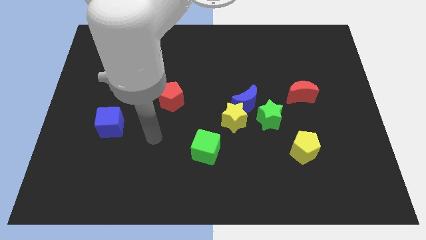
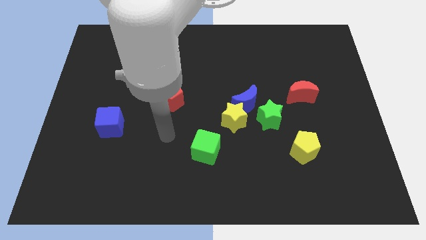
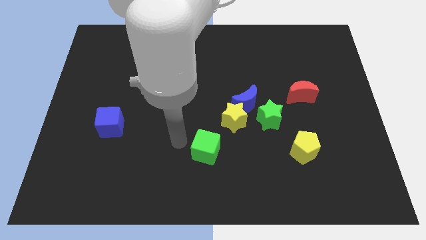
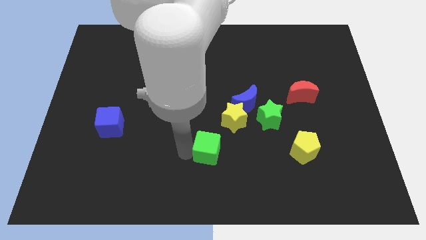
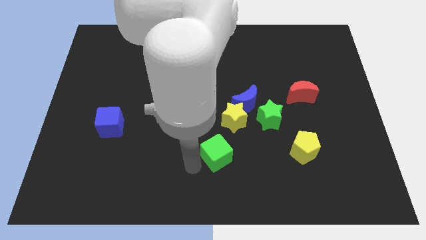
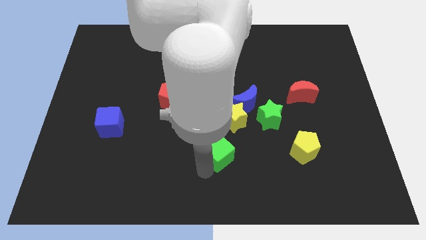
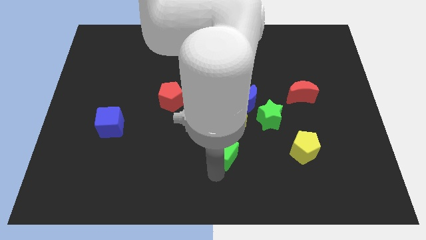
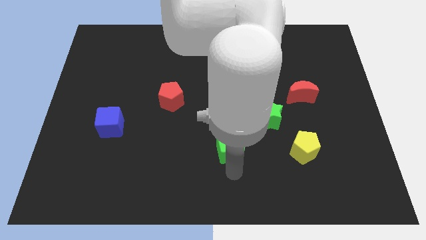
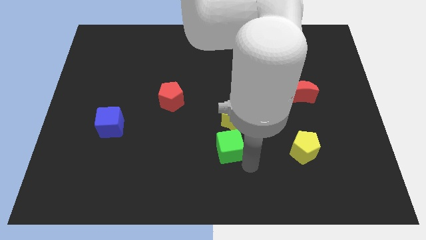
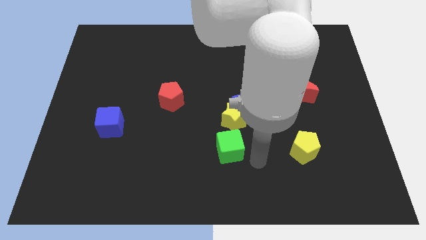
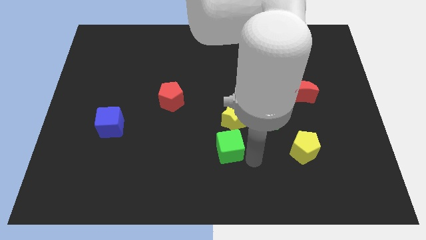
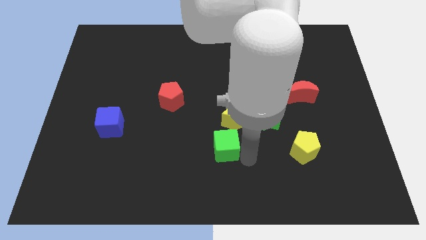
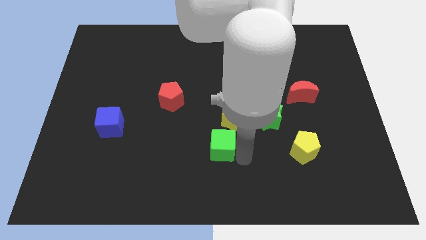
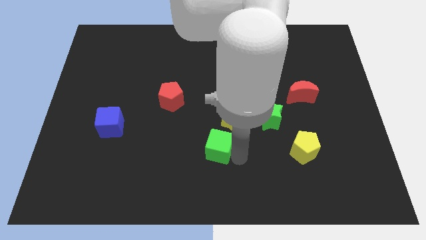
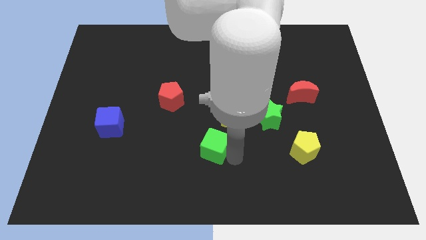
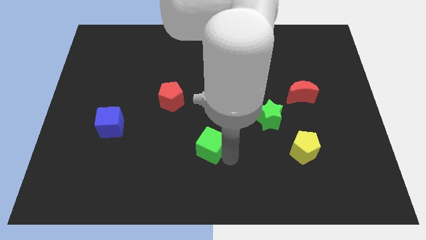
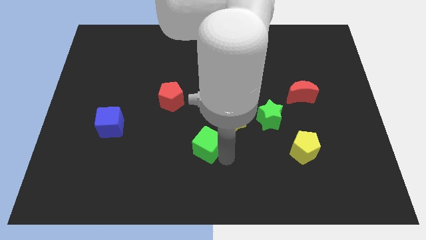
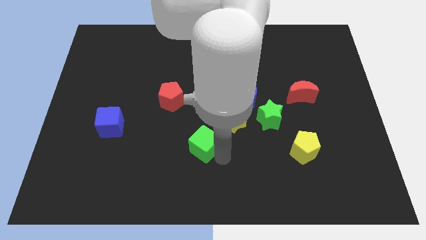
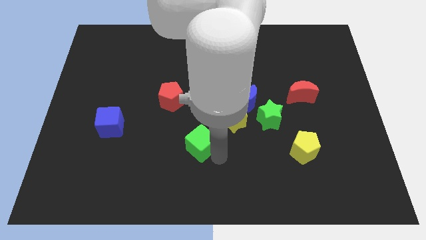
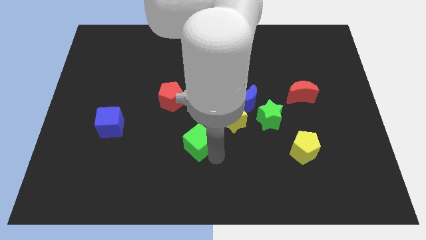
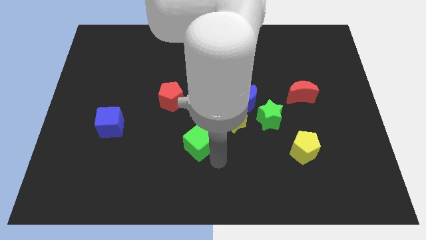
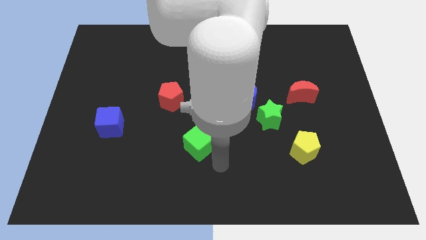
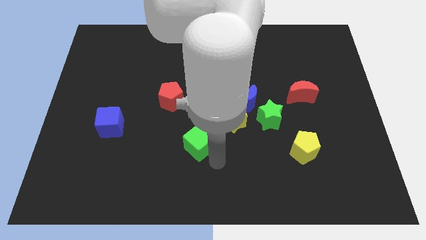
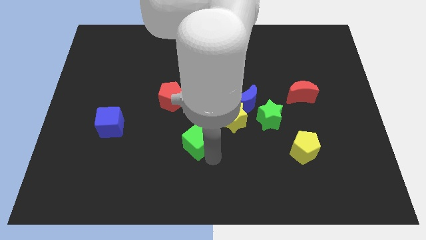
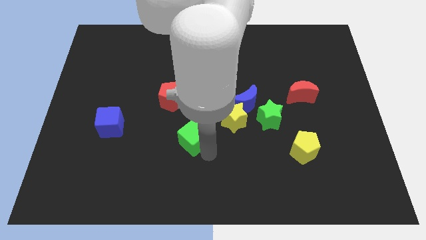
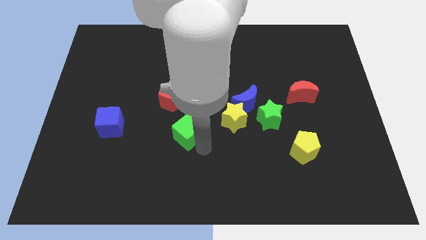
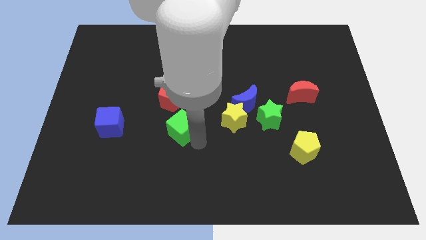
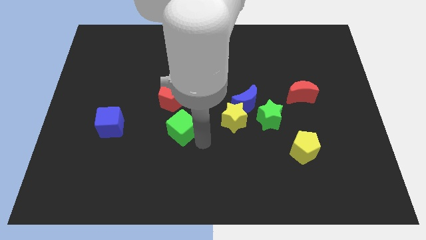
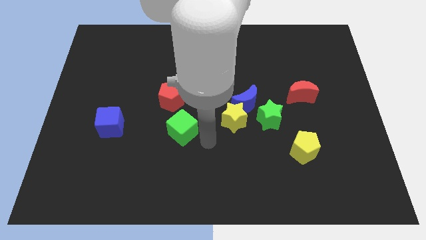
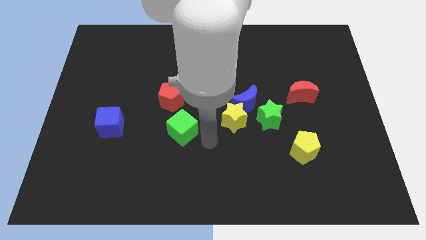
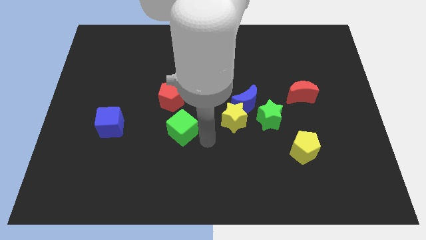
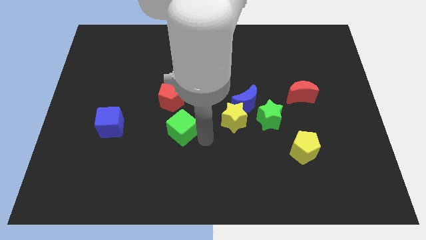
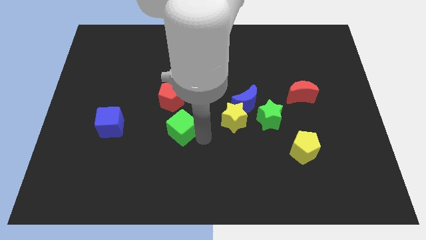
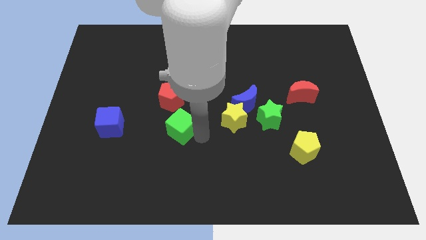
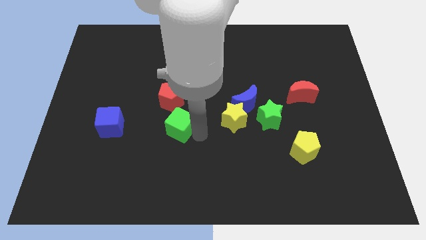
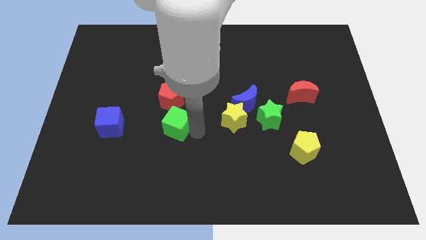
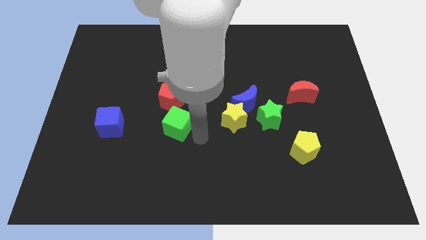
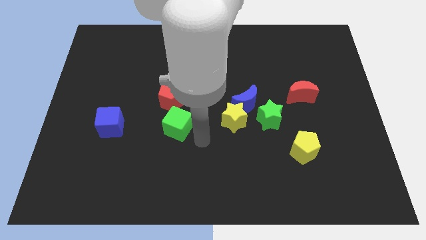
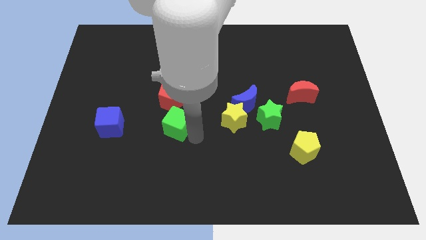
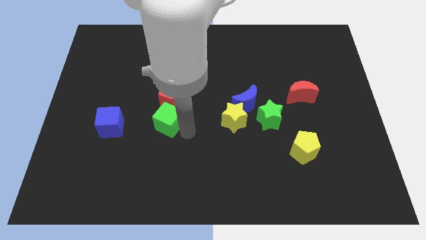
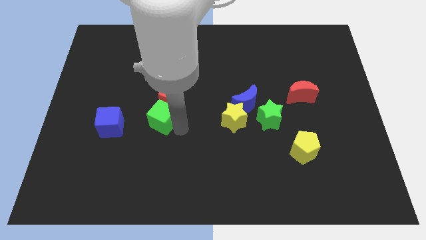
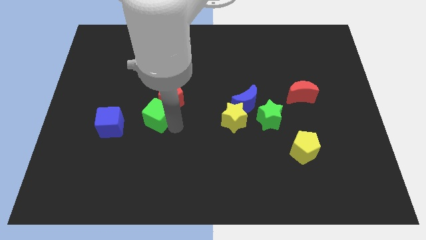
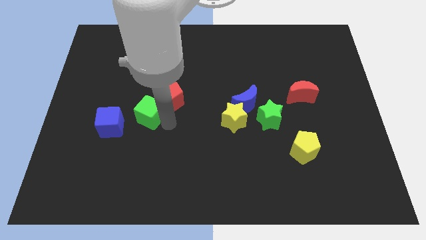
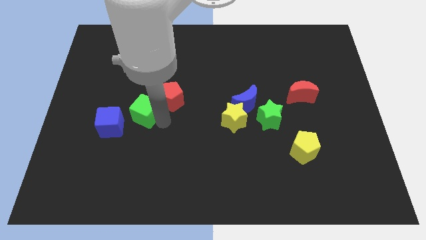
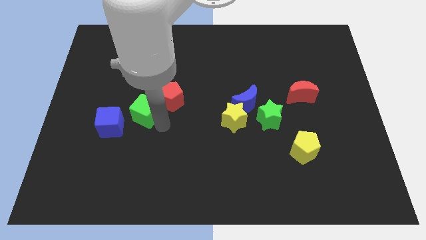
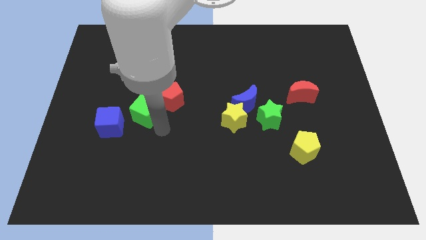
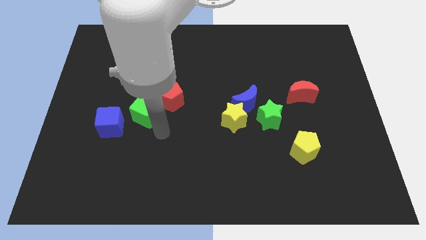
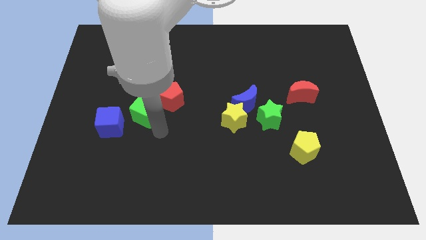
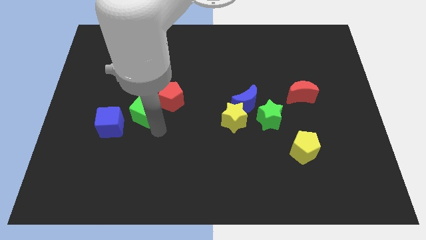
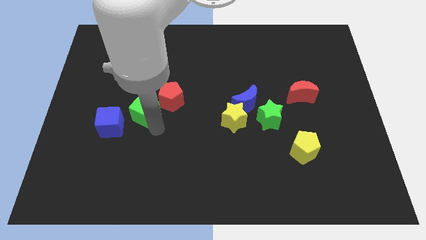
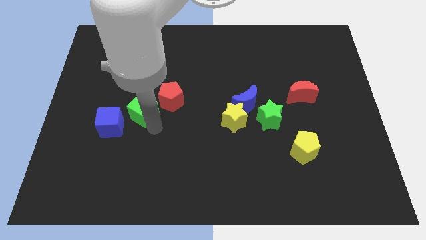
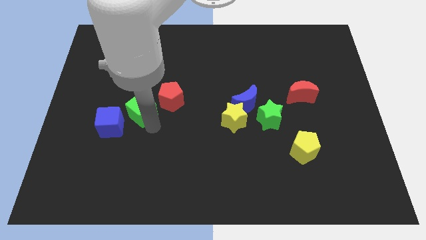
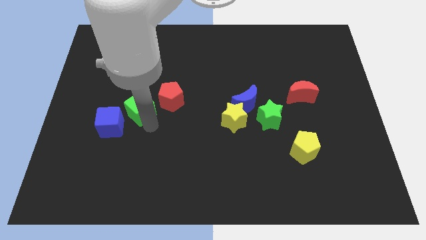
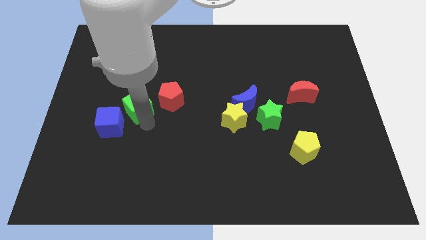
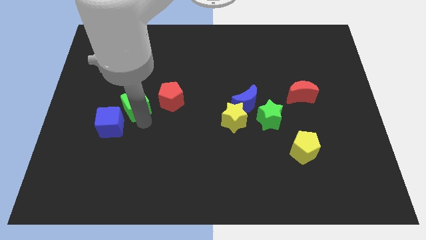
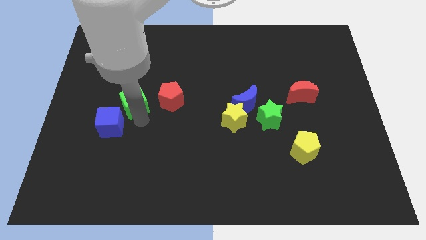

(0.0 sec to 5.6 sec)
slide the green cube upwards and then to the left

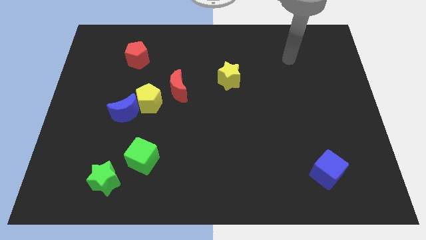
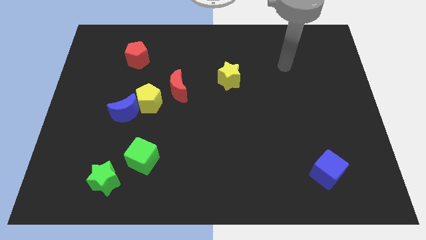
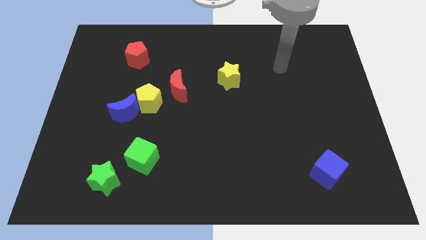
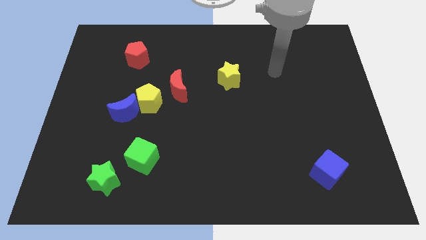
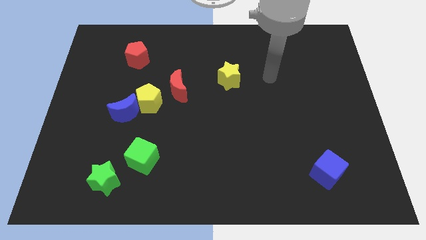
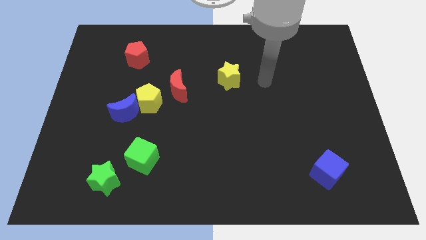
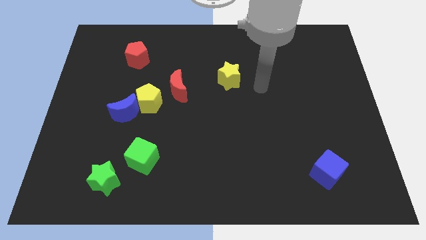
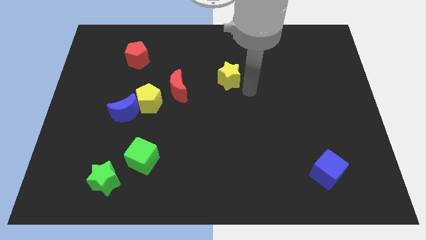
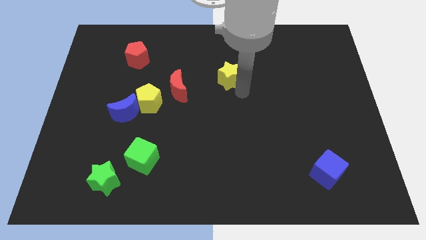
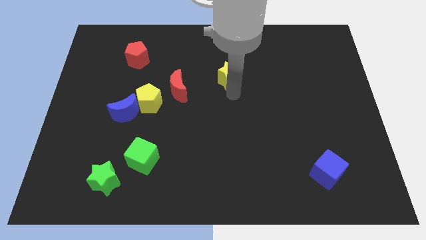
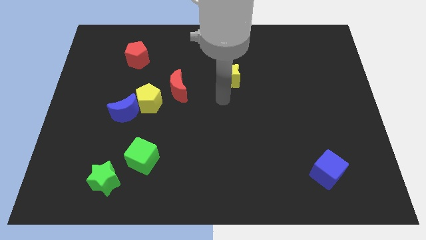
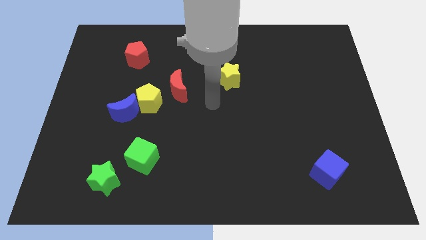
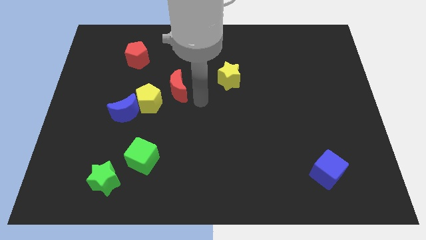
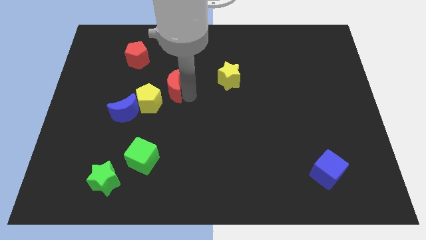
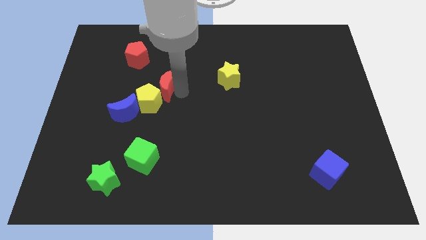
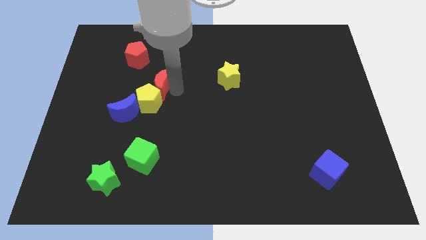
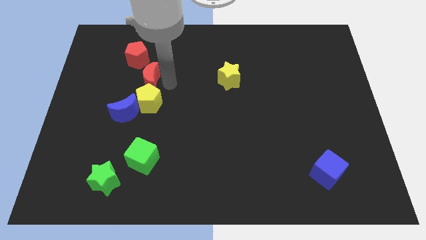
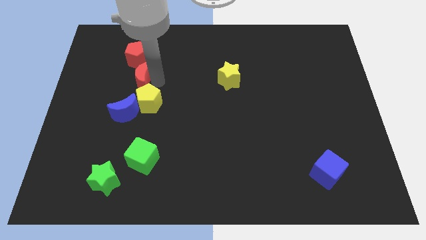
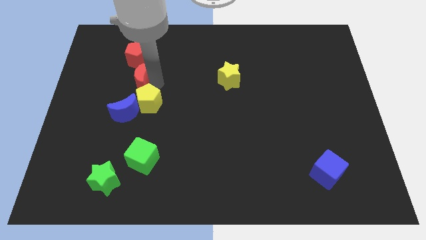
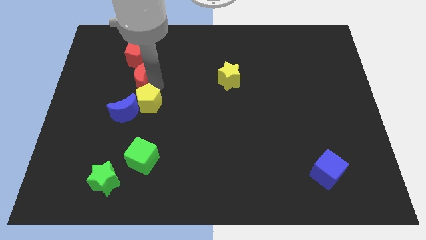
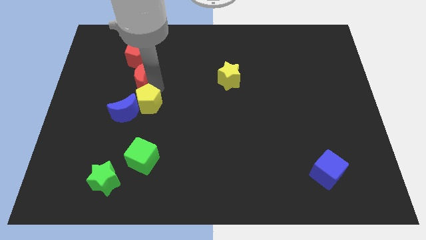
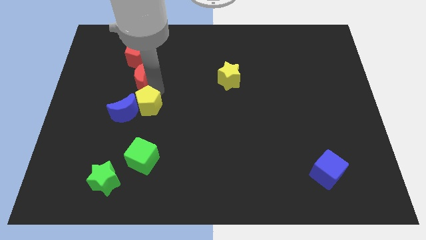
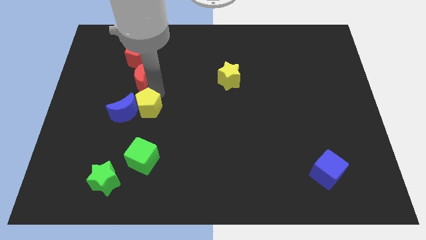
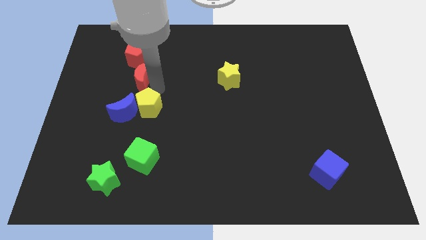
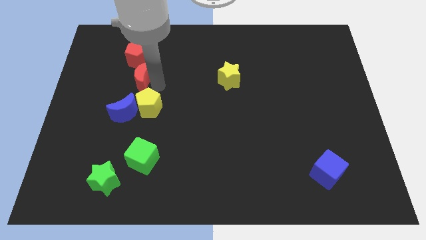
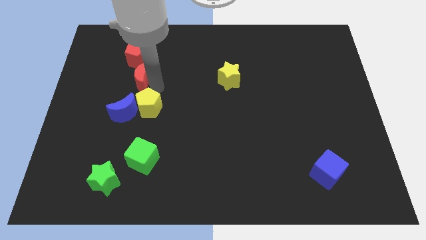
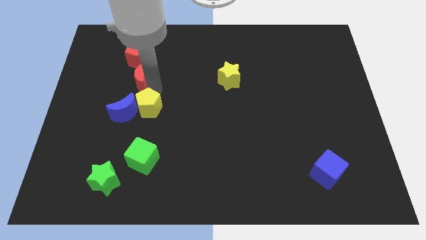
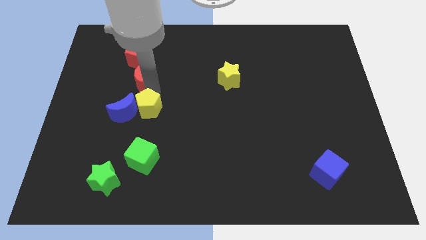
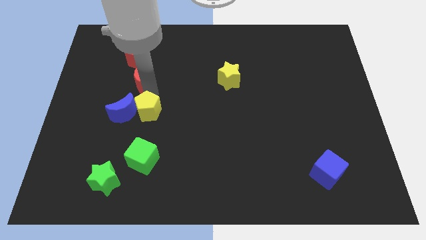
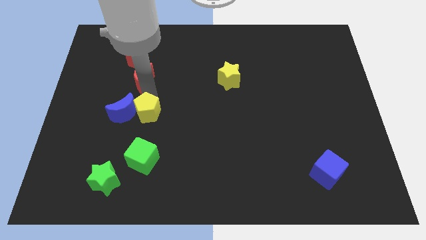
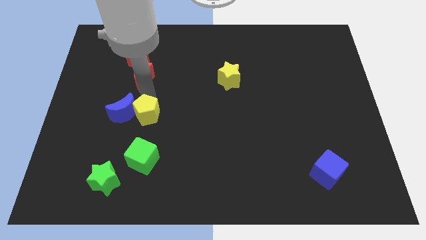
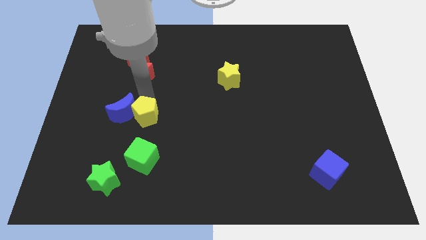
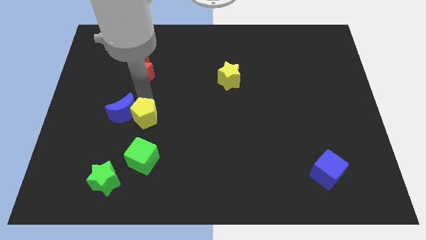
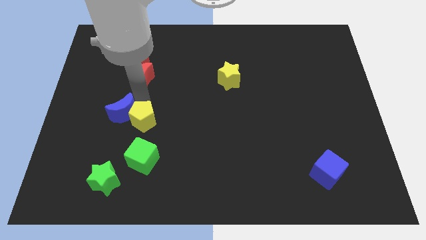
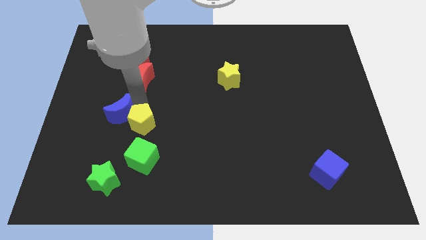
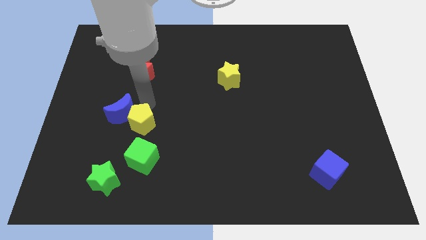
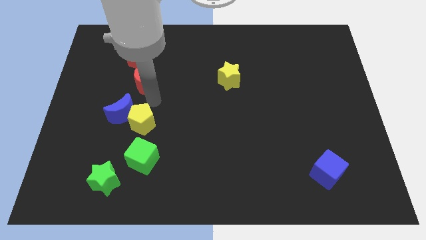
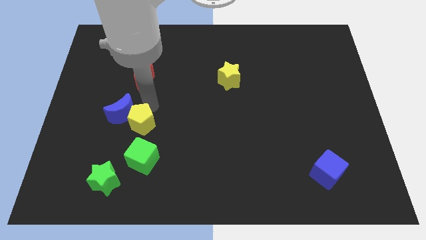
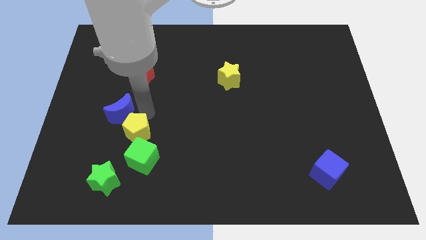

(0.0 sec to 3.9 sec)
slide the yellow pentagon down slightly
